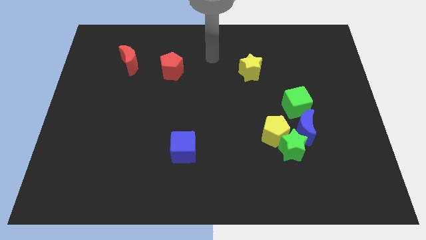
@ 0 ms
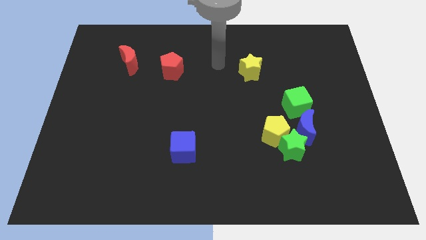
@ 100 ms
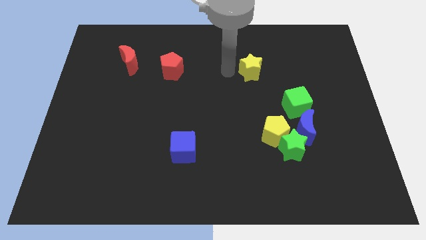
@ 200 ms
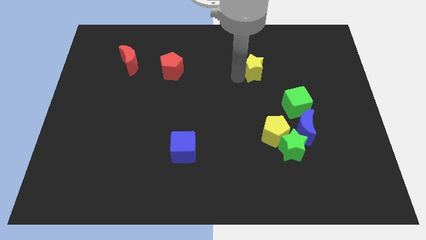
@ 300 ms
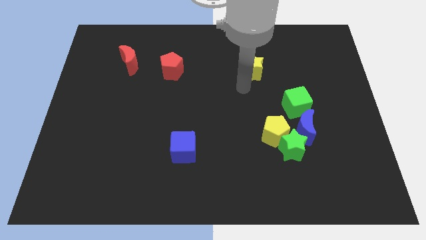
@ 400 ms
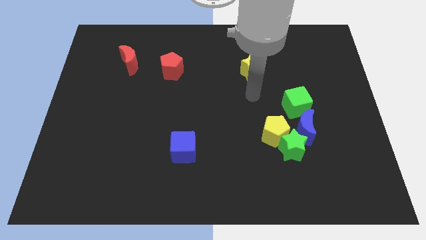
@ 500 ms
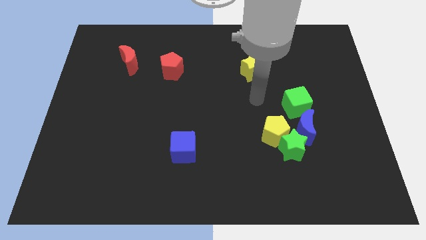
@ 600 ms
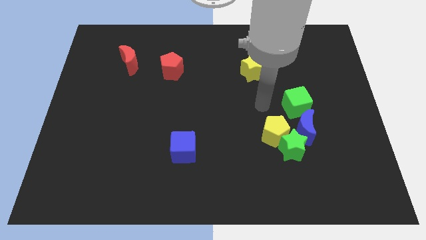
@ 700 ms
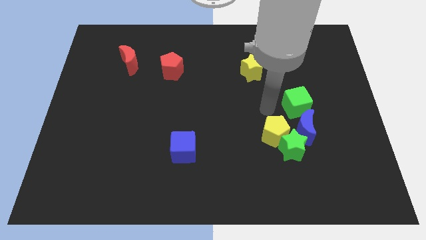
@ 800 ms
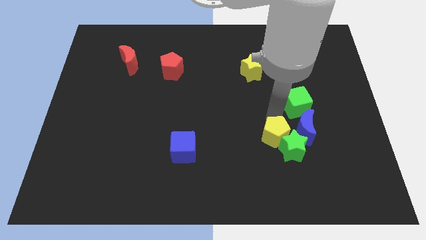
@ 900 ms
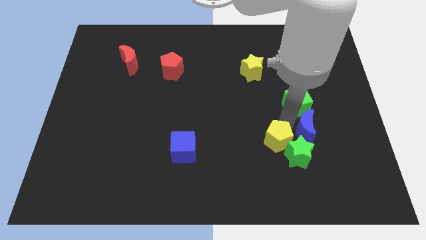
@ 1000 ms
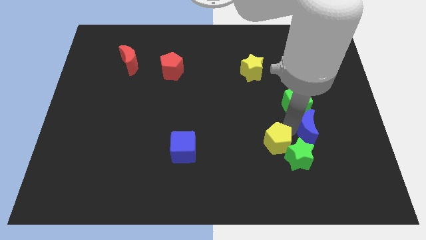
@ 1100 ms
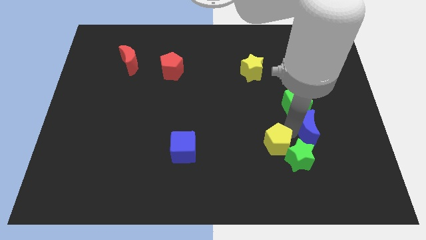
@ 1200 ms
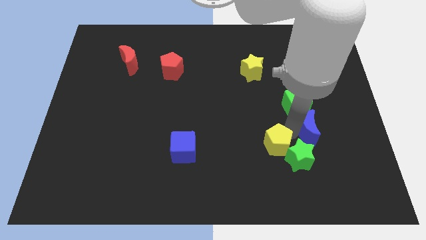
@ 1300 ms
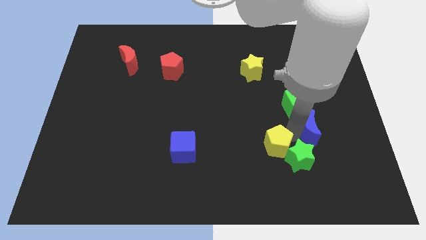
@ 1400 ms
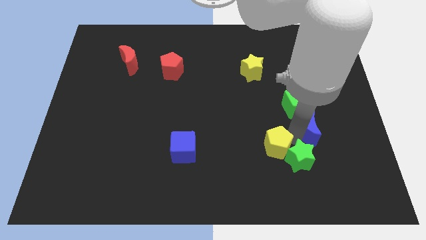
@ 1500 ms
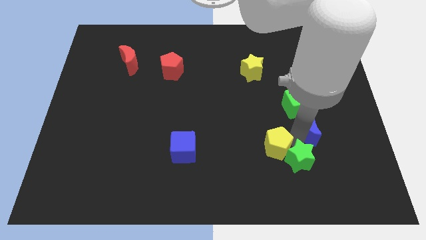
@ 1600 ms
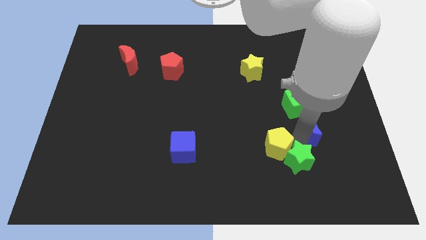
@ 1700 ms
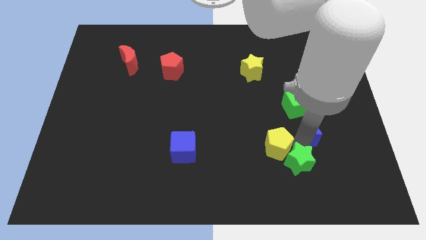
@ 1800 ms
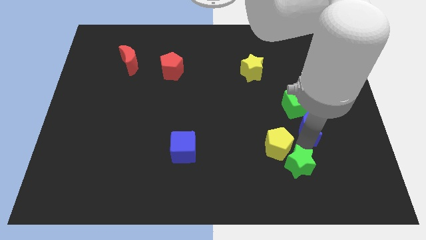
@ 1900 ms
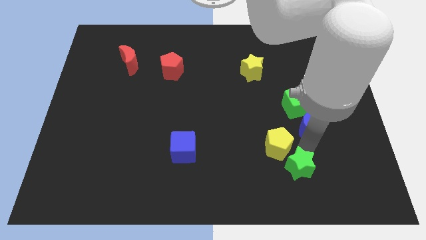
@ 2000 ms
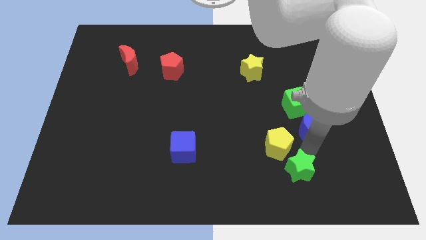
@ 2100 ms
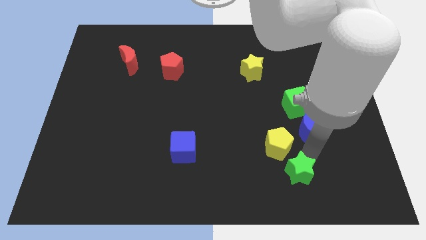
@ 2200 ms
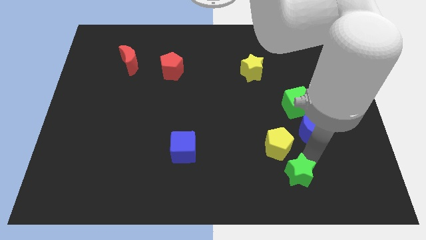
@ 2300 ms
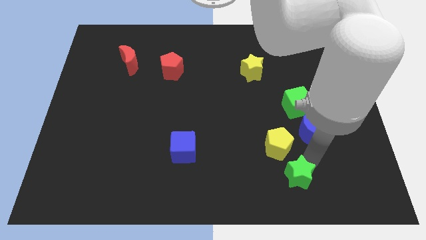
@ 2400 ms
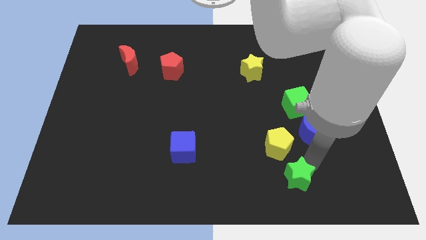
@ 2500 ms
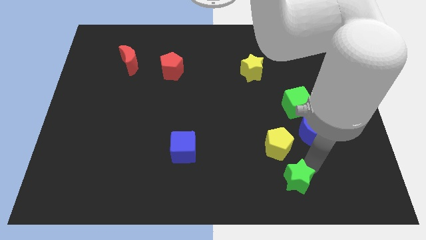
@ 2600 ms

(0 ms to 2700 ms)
move the green star away from the yellow pentagon and blue moon

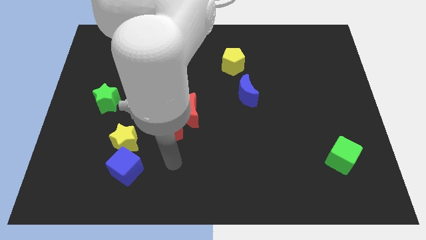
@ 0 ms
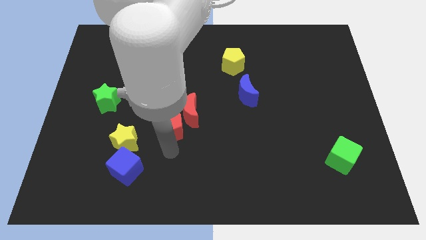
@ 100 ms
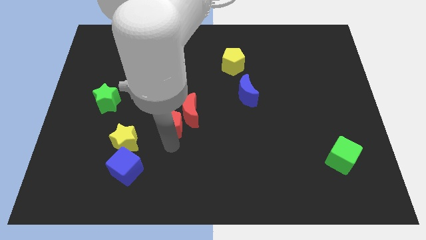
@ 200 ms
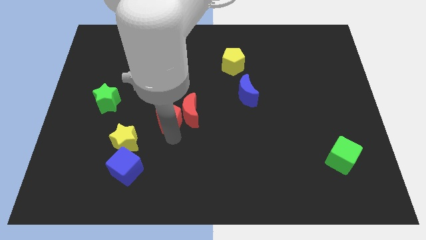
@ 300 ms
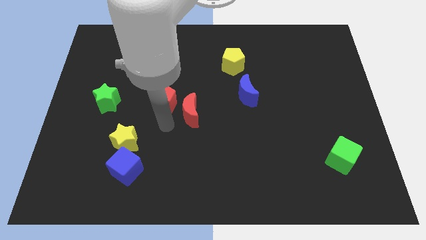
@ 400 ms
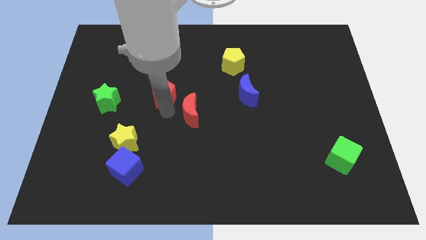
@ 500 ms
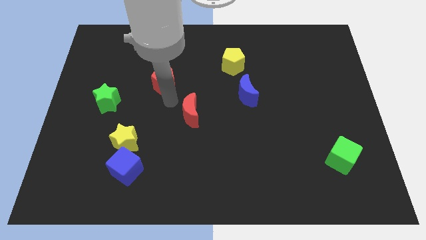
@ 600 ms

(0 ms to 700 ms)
move the red moon away from the red pentagon

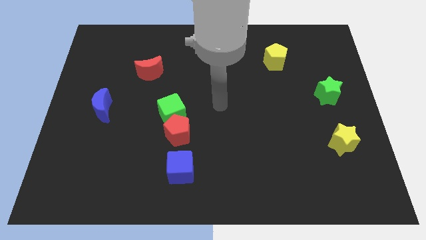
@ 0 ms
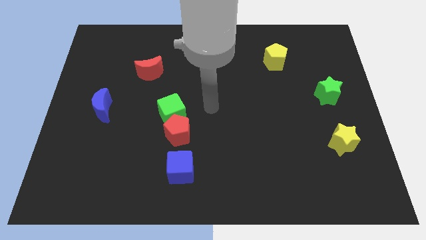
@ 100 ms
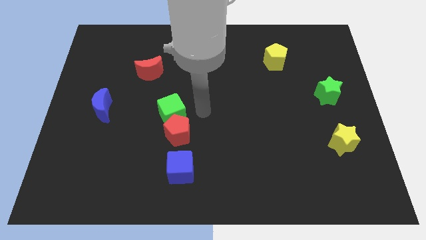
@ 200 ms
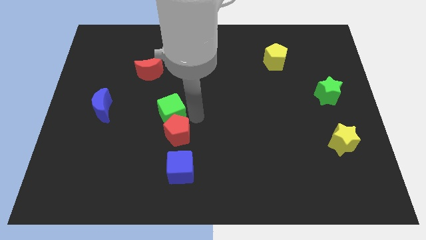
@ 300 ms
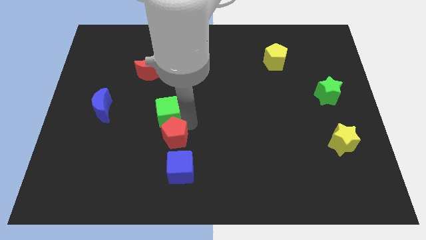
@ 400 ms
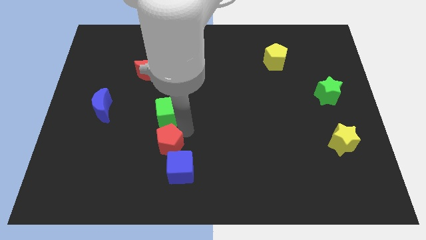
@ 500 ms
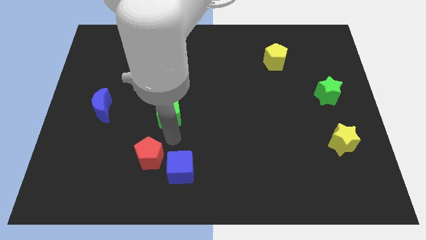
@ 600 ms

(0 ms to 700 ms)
move the green cube away from the red pentagon

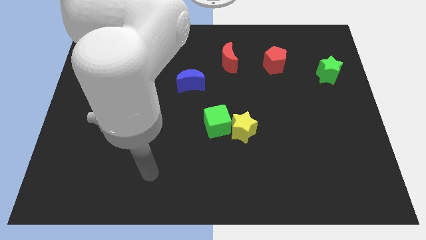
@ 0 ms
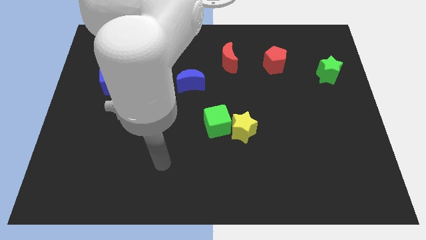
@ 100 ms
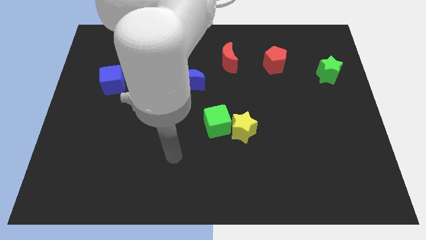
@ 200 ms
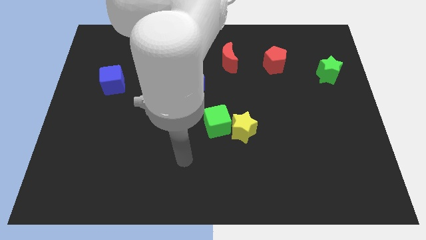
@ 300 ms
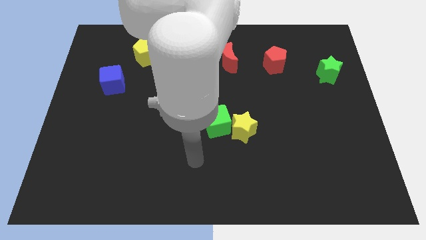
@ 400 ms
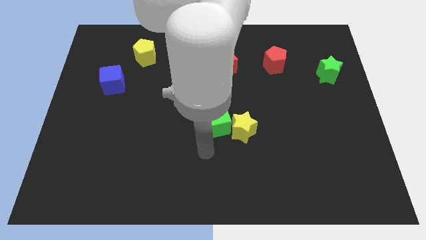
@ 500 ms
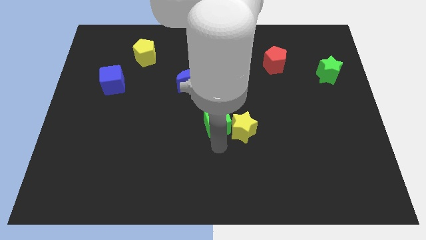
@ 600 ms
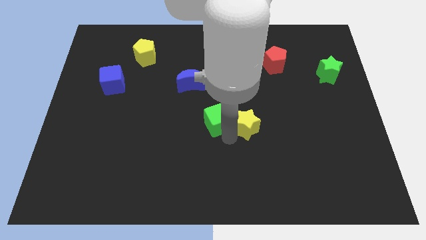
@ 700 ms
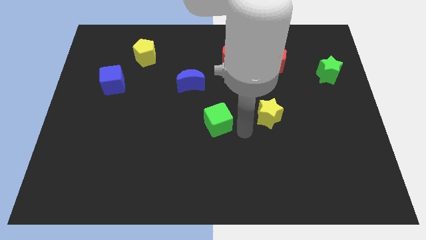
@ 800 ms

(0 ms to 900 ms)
move the green cube away from the yellow star

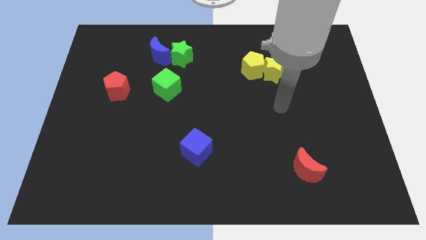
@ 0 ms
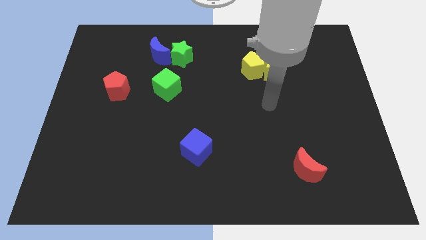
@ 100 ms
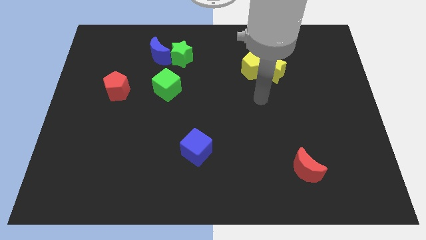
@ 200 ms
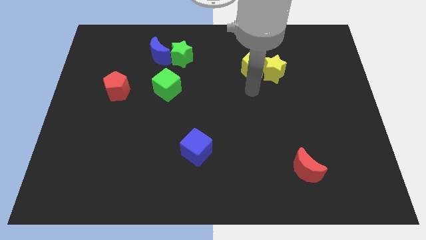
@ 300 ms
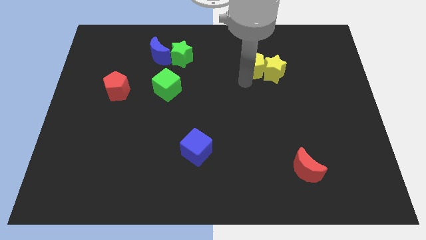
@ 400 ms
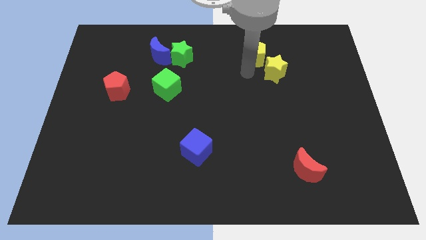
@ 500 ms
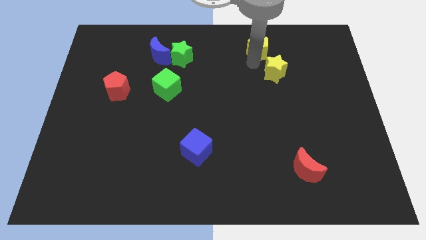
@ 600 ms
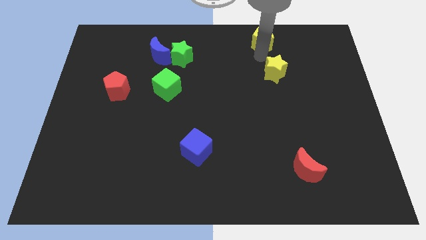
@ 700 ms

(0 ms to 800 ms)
pull the yellow star apart from the yellow pentagon

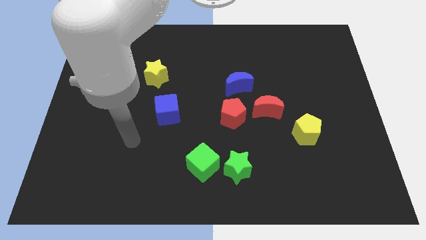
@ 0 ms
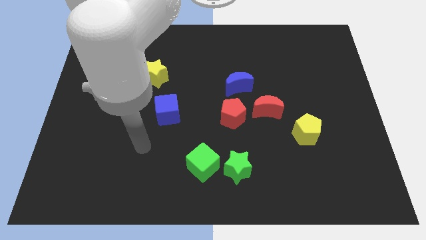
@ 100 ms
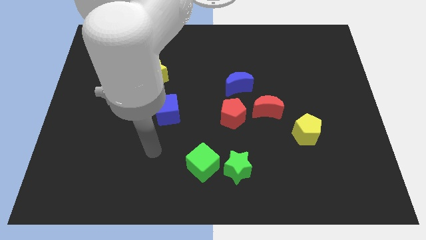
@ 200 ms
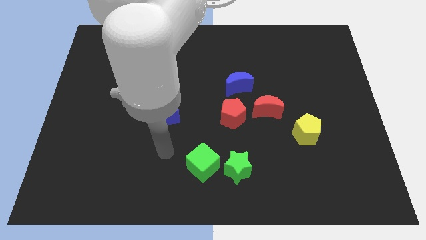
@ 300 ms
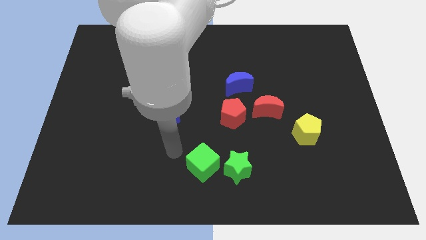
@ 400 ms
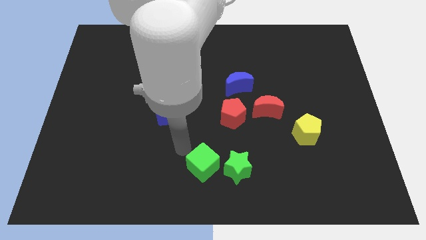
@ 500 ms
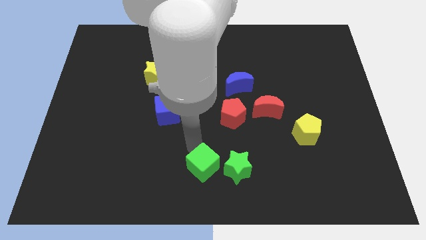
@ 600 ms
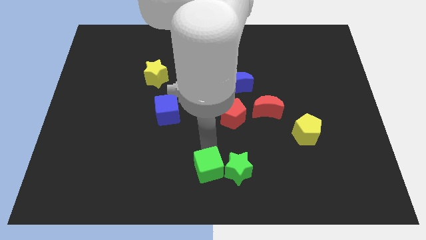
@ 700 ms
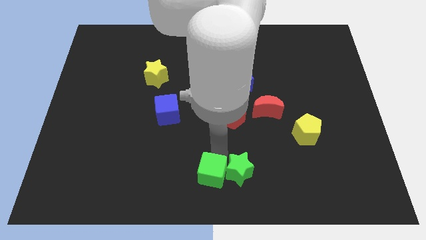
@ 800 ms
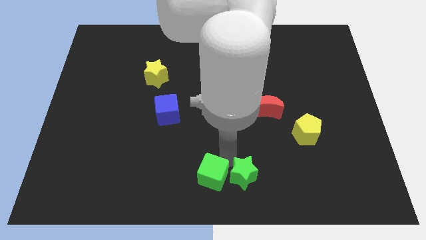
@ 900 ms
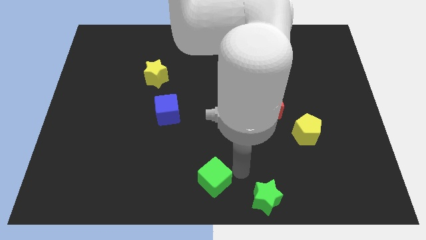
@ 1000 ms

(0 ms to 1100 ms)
pull the green cube apart from the green star

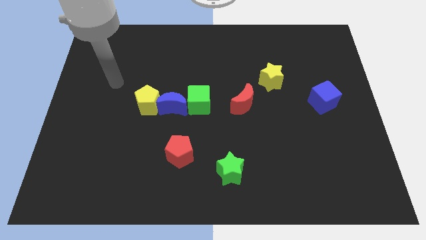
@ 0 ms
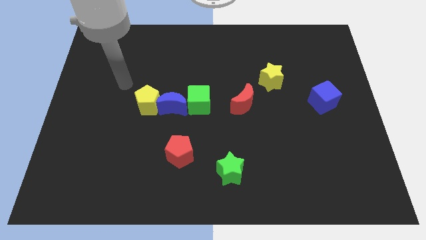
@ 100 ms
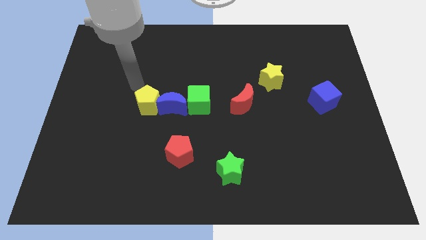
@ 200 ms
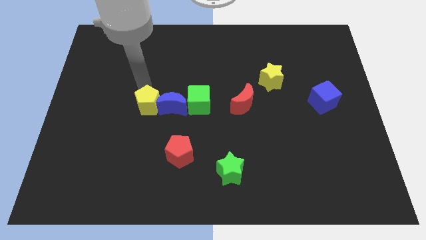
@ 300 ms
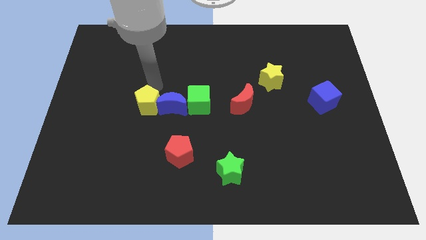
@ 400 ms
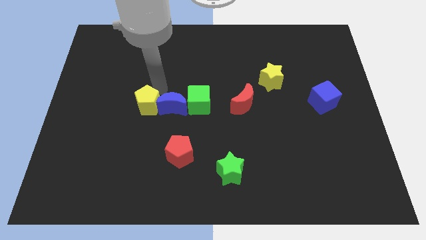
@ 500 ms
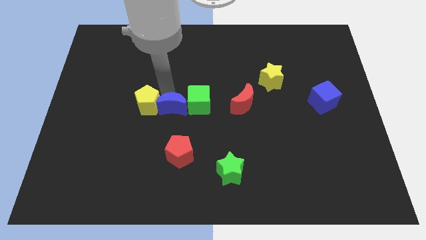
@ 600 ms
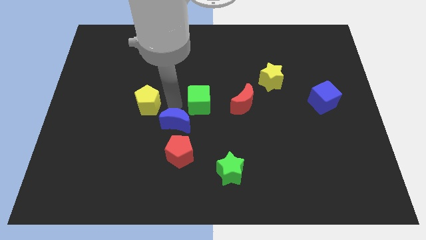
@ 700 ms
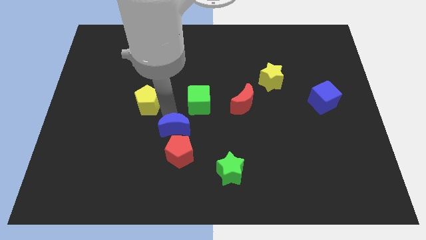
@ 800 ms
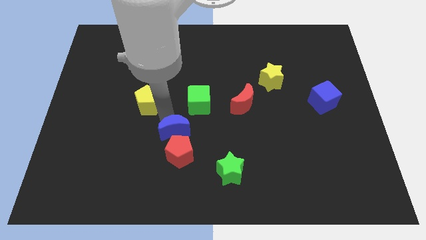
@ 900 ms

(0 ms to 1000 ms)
separate the yellow pentagon from the blue moon

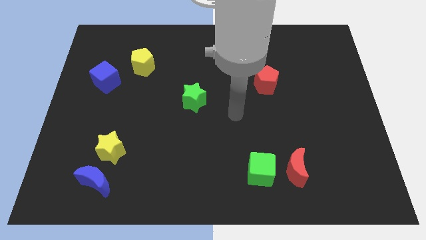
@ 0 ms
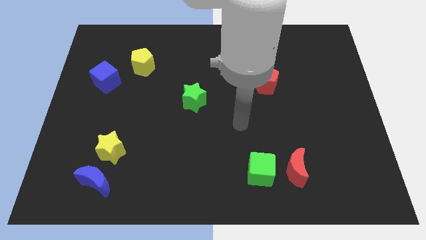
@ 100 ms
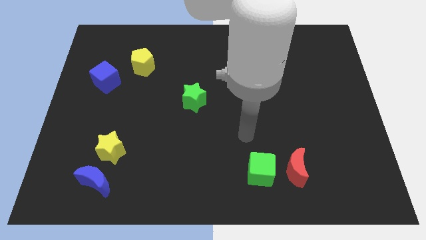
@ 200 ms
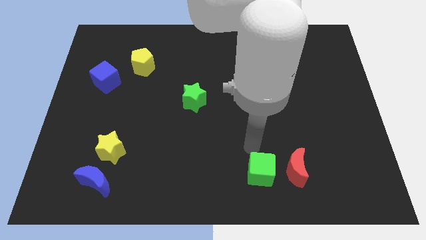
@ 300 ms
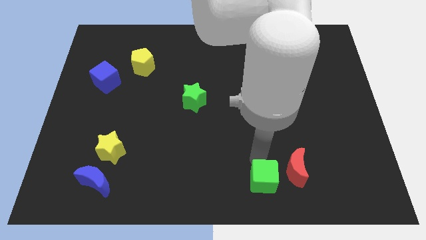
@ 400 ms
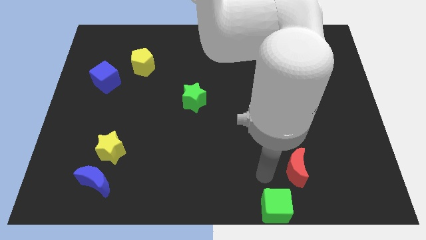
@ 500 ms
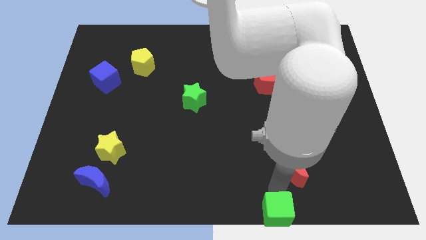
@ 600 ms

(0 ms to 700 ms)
separate the red moon from the green cube

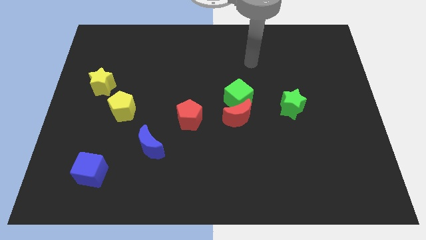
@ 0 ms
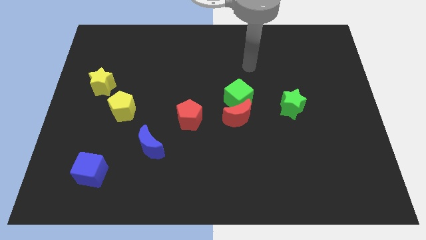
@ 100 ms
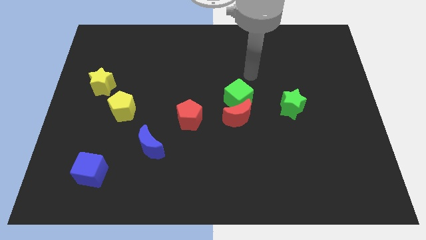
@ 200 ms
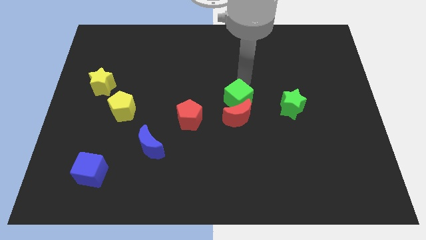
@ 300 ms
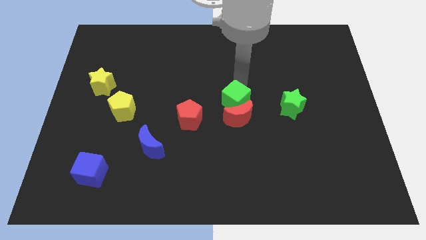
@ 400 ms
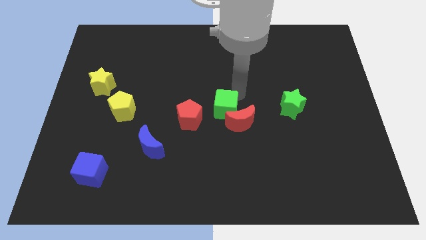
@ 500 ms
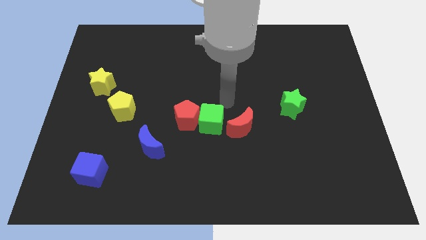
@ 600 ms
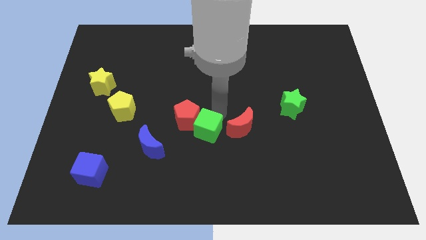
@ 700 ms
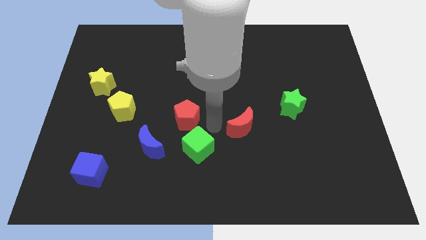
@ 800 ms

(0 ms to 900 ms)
move the red moon away from the green cube
